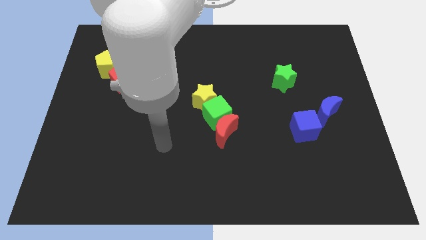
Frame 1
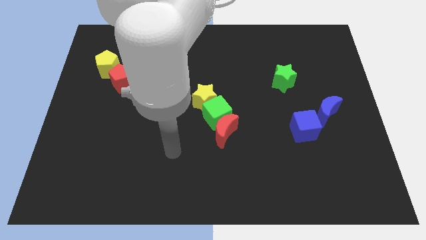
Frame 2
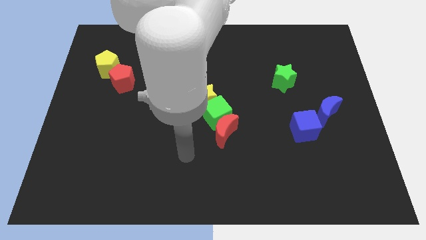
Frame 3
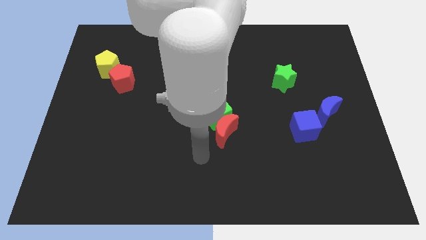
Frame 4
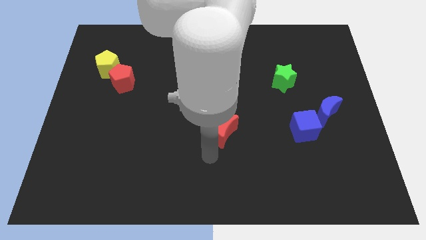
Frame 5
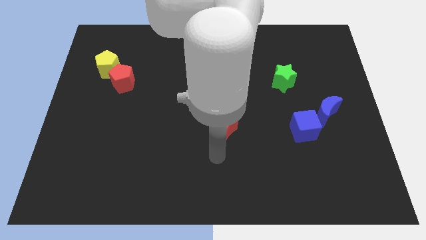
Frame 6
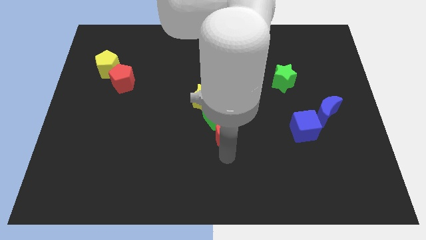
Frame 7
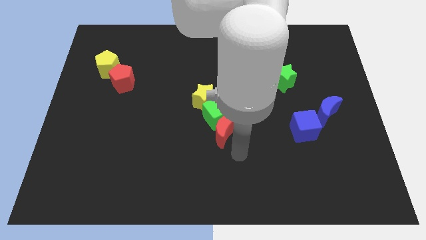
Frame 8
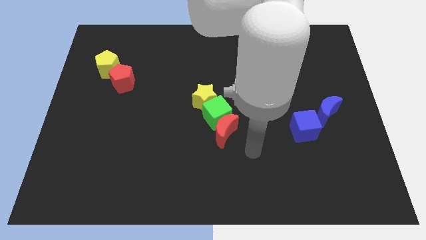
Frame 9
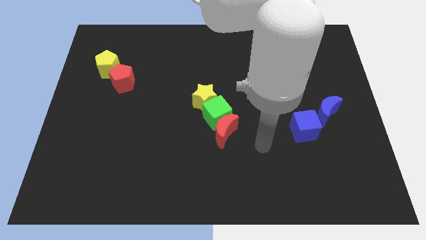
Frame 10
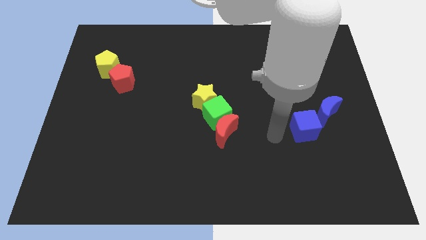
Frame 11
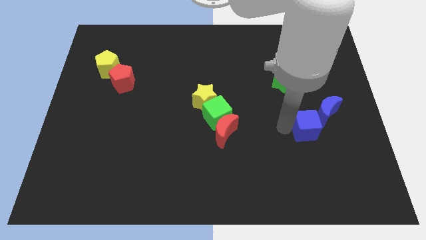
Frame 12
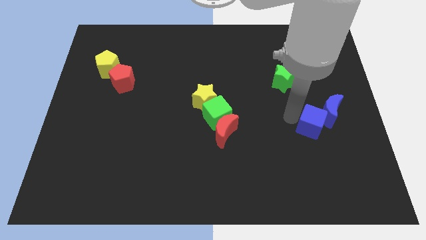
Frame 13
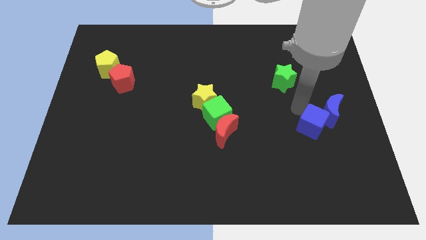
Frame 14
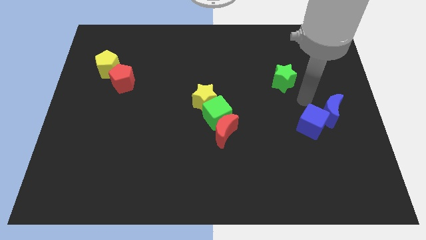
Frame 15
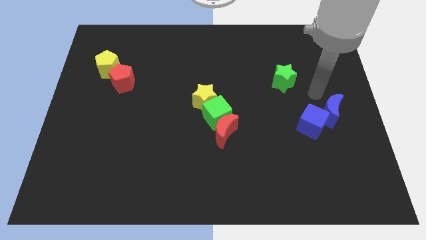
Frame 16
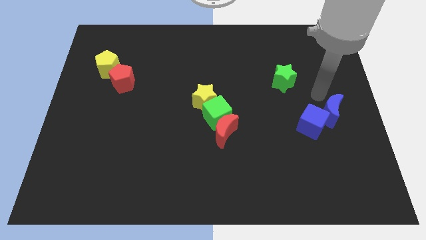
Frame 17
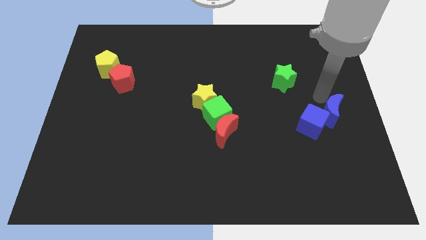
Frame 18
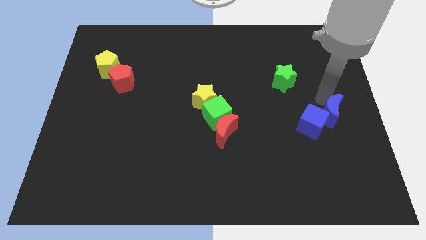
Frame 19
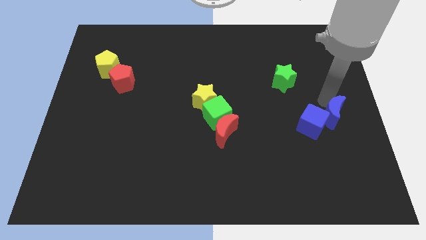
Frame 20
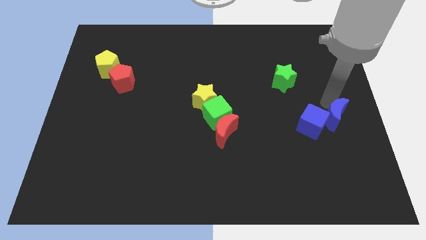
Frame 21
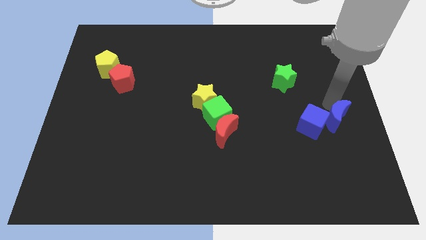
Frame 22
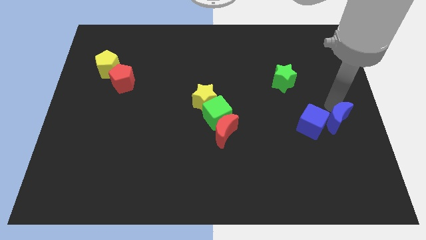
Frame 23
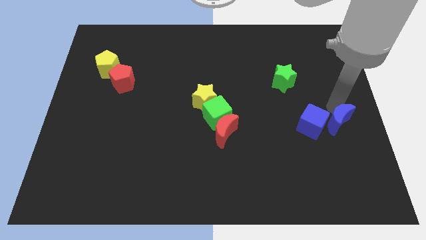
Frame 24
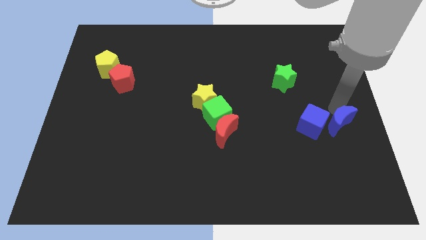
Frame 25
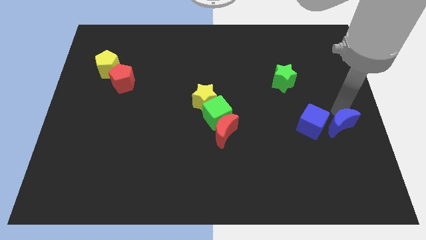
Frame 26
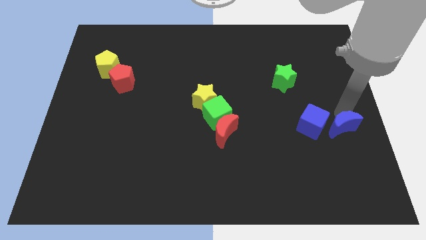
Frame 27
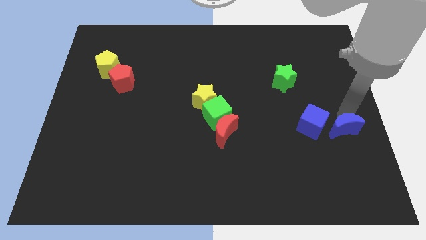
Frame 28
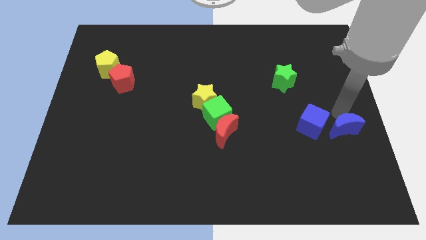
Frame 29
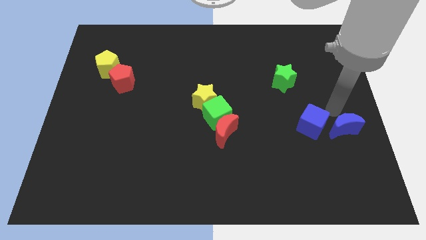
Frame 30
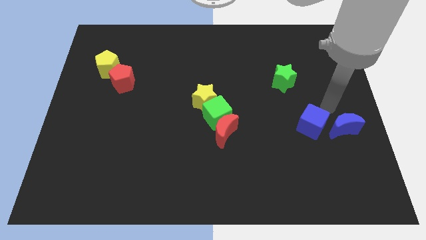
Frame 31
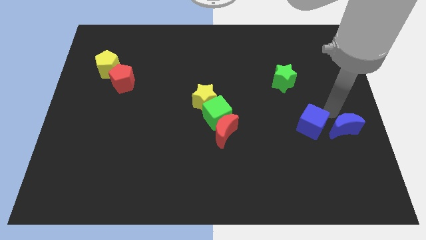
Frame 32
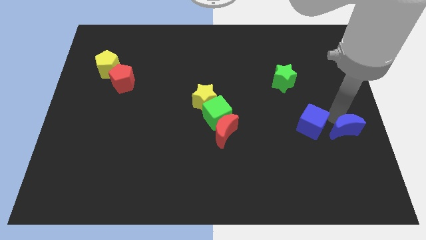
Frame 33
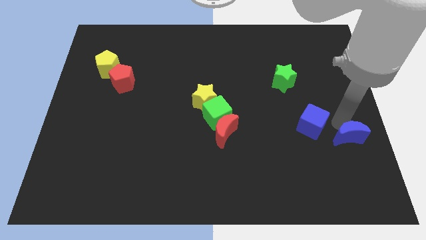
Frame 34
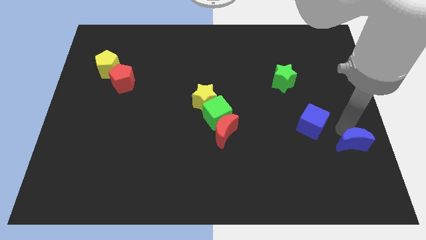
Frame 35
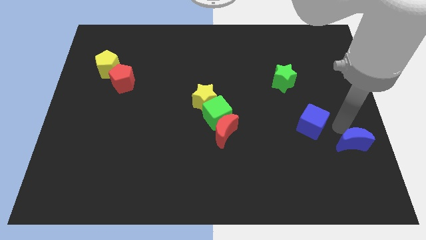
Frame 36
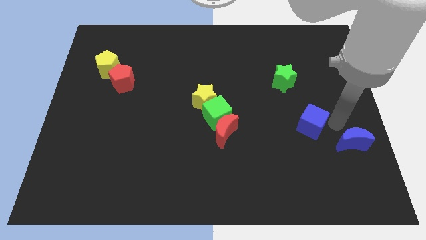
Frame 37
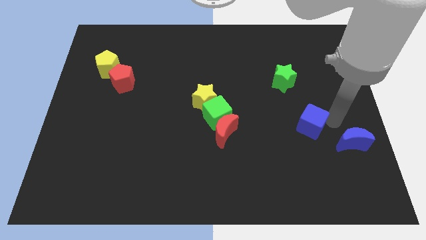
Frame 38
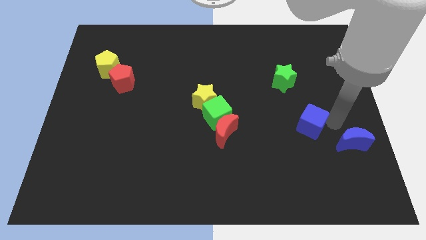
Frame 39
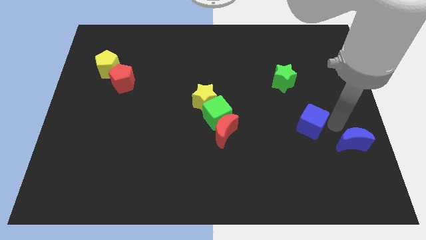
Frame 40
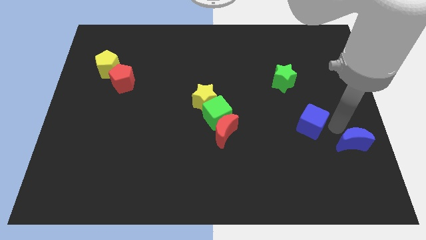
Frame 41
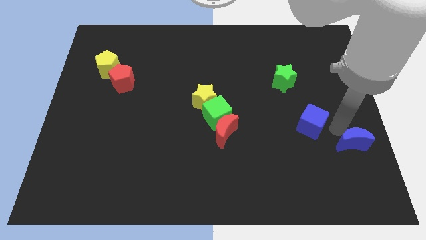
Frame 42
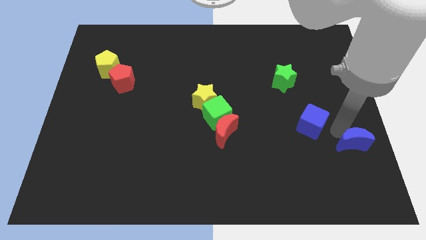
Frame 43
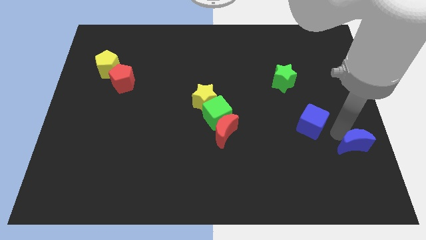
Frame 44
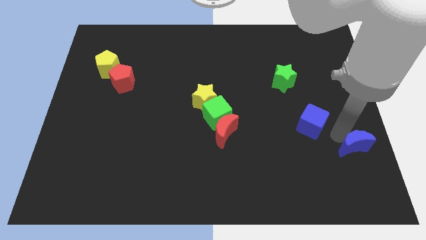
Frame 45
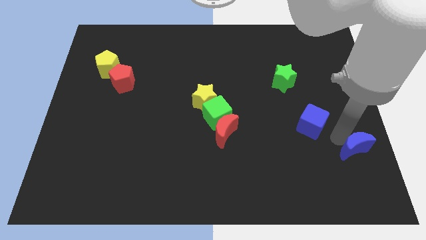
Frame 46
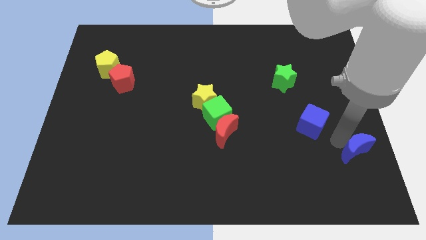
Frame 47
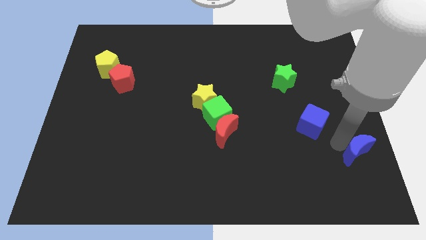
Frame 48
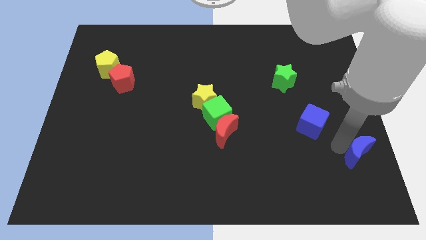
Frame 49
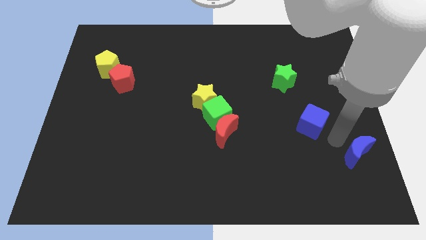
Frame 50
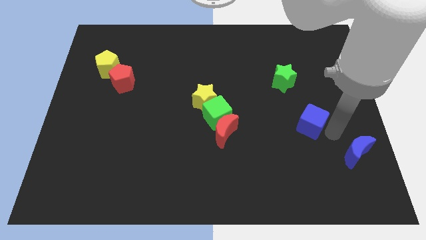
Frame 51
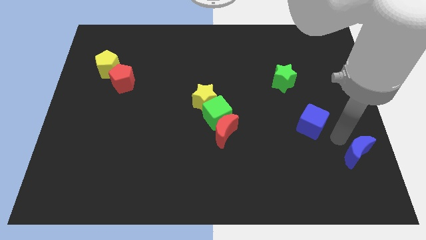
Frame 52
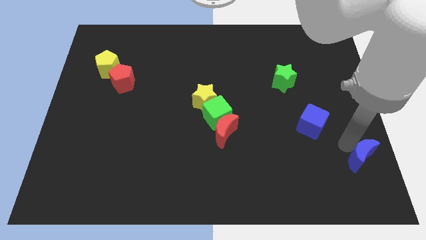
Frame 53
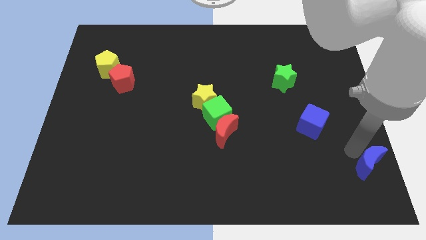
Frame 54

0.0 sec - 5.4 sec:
put the blue moon to the lower right corner

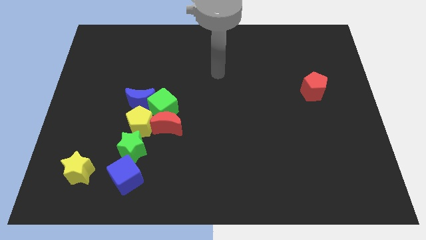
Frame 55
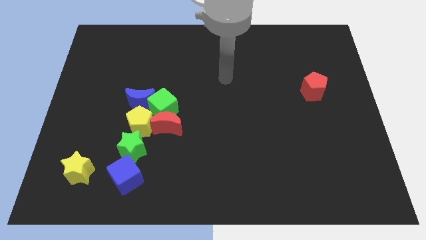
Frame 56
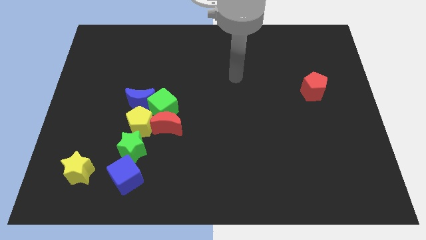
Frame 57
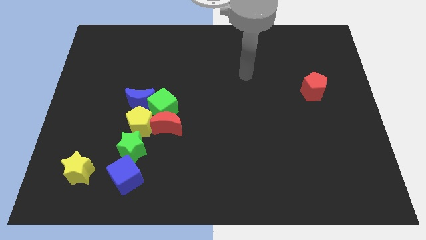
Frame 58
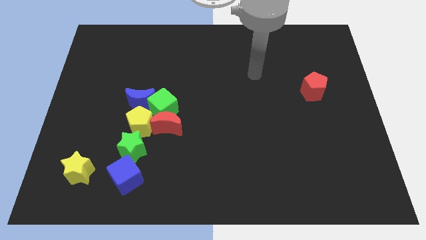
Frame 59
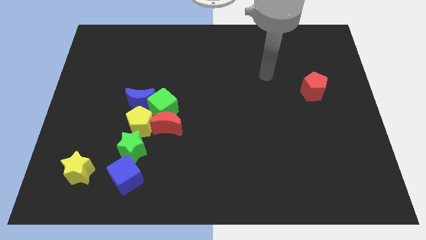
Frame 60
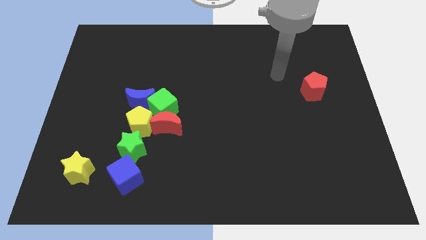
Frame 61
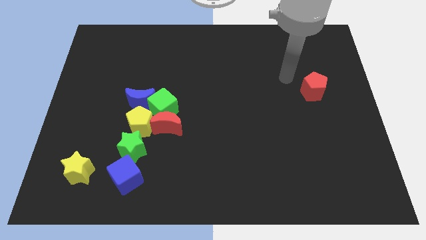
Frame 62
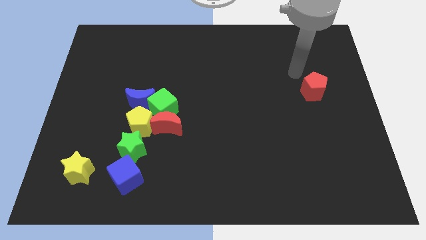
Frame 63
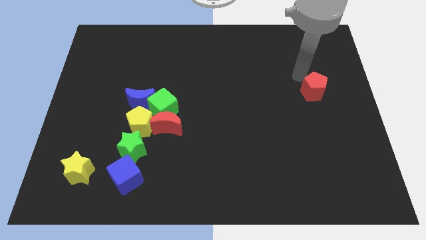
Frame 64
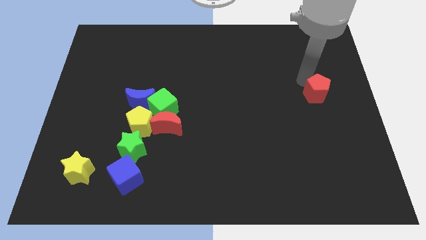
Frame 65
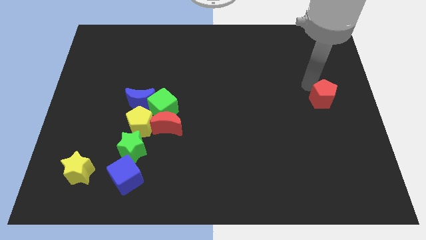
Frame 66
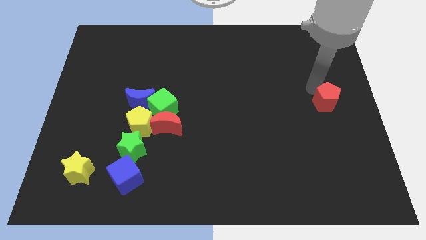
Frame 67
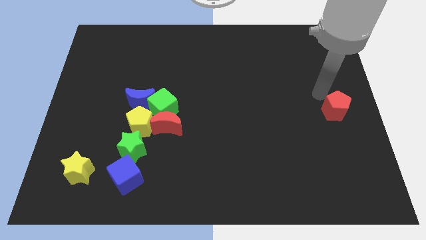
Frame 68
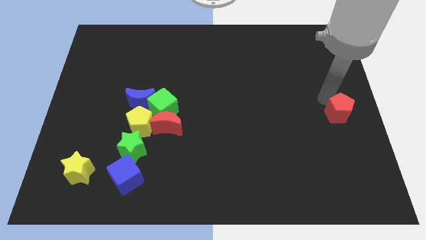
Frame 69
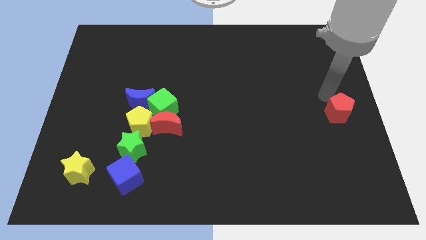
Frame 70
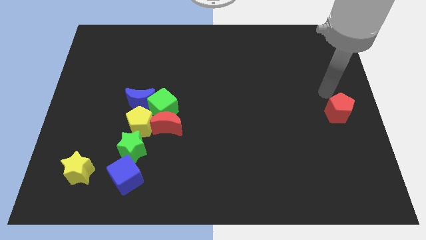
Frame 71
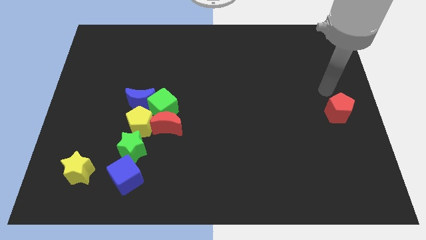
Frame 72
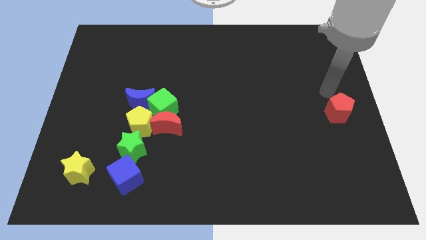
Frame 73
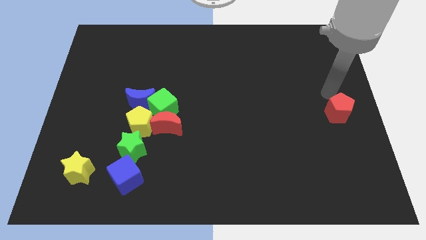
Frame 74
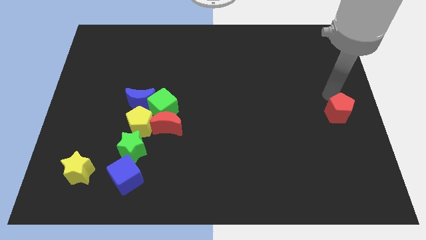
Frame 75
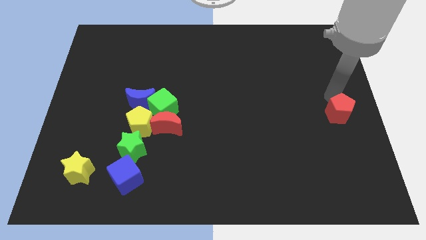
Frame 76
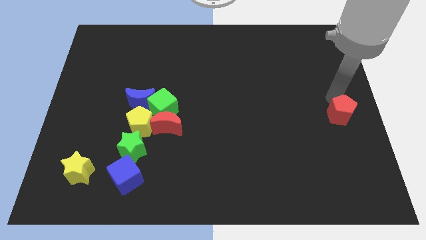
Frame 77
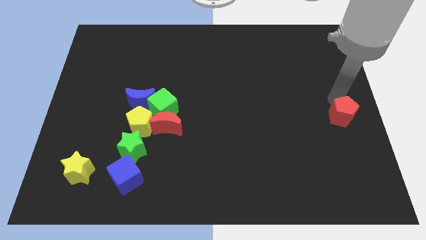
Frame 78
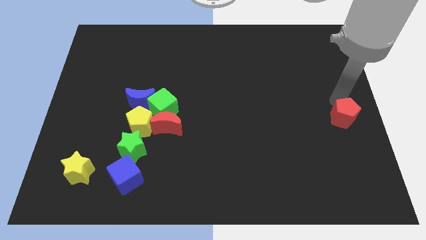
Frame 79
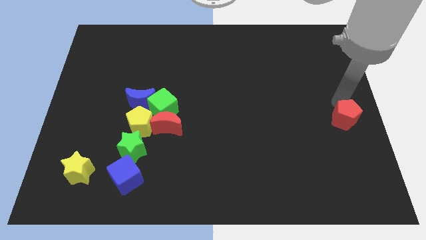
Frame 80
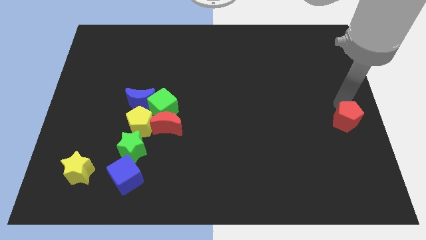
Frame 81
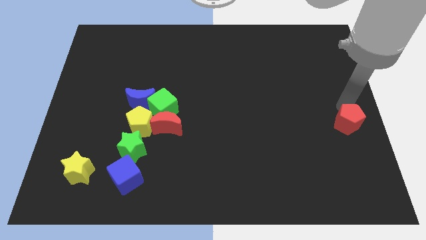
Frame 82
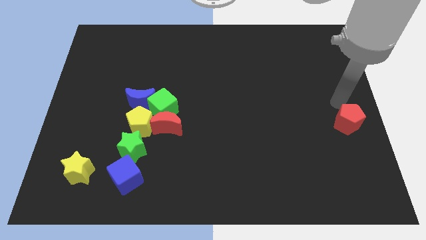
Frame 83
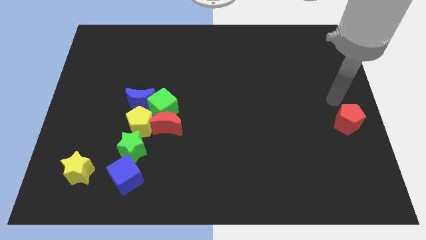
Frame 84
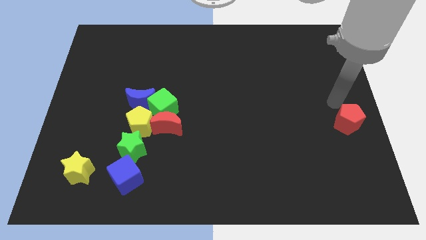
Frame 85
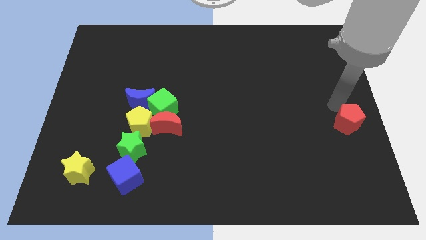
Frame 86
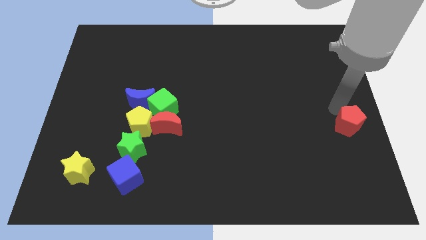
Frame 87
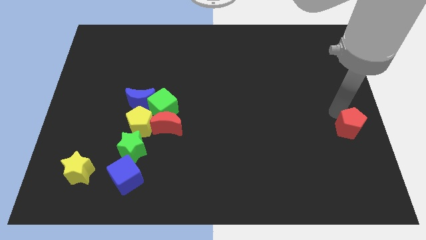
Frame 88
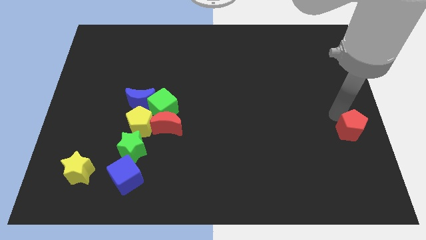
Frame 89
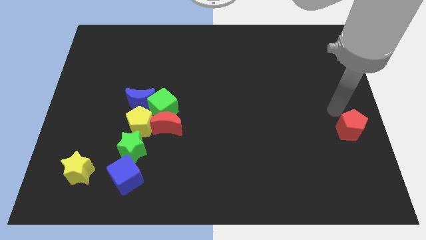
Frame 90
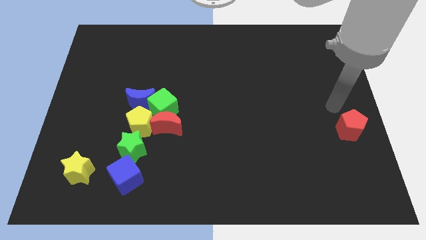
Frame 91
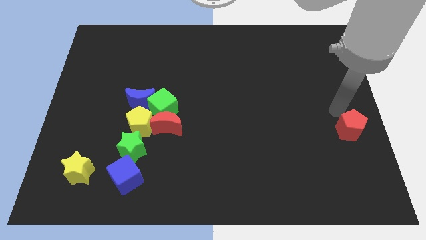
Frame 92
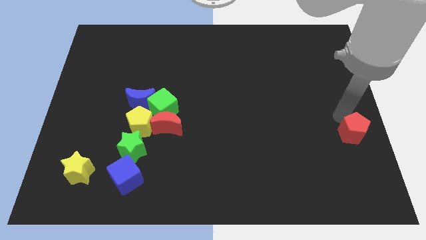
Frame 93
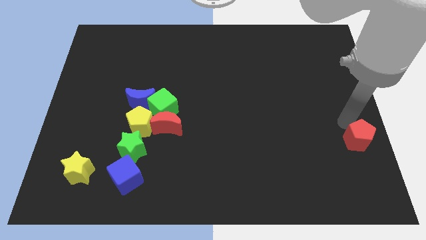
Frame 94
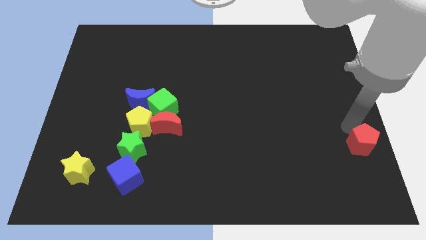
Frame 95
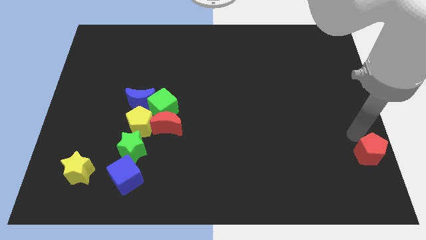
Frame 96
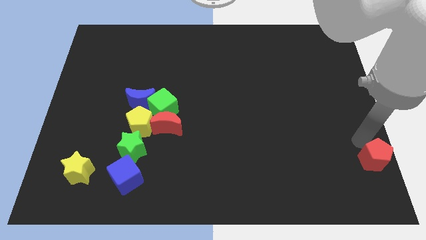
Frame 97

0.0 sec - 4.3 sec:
put the red pentagon to the lower right corner
